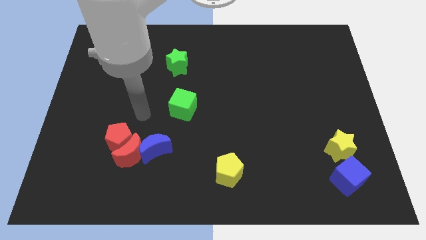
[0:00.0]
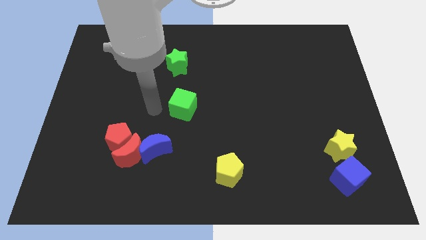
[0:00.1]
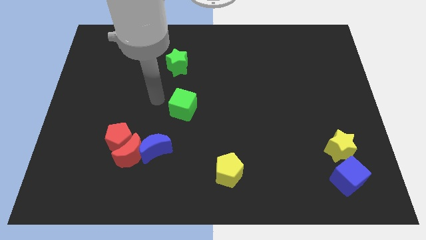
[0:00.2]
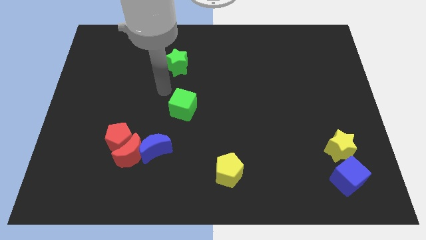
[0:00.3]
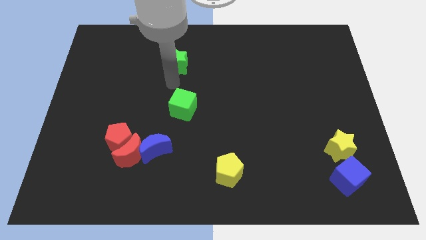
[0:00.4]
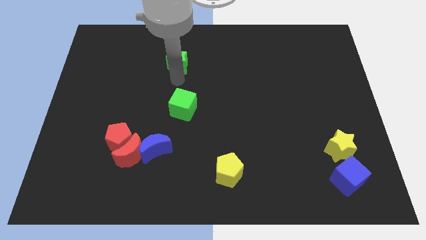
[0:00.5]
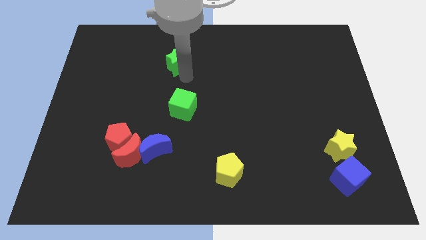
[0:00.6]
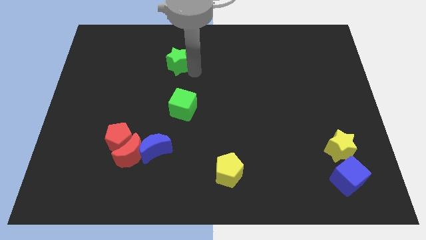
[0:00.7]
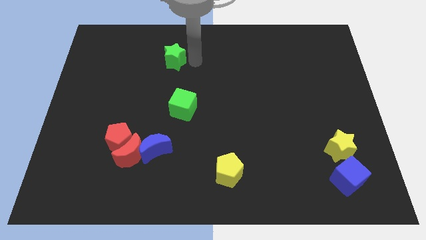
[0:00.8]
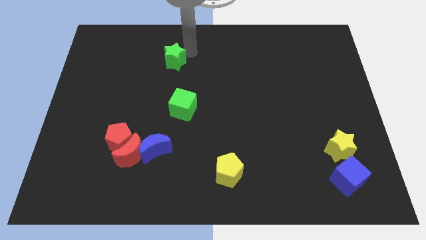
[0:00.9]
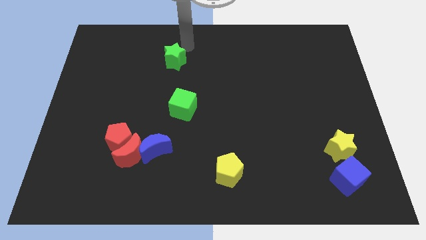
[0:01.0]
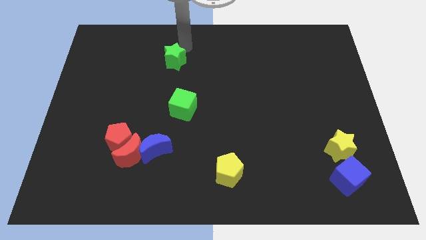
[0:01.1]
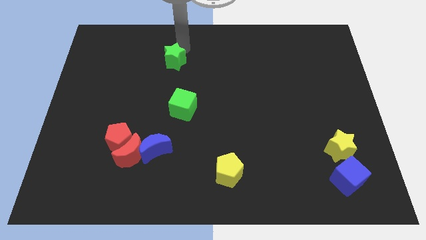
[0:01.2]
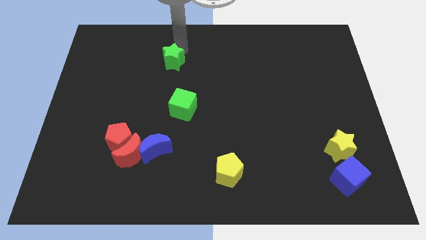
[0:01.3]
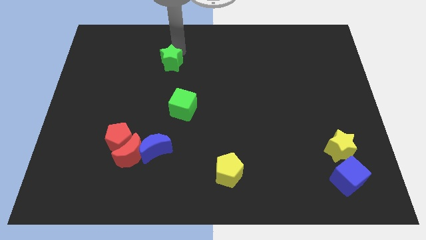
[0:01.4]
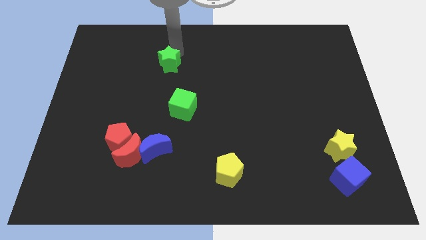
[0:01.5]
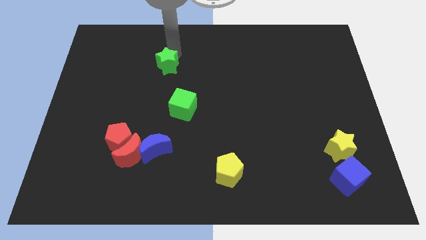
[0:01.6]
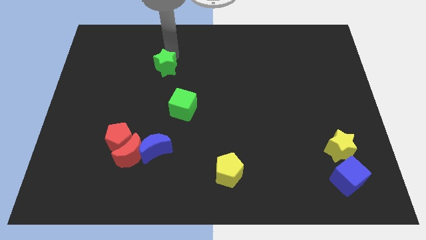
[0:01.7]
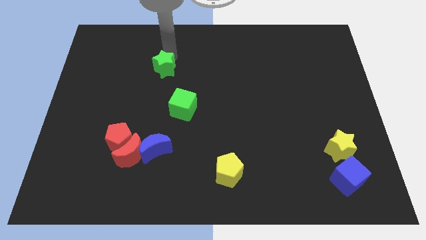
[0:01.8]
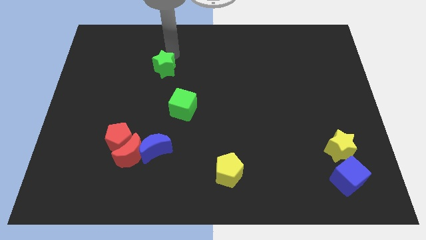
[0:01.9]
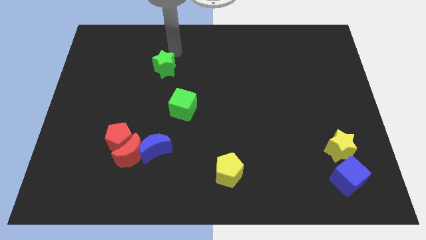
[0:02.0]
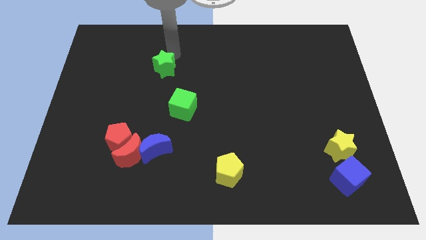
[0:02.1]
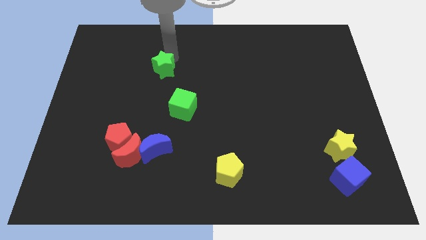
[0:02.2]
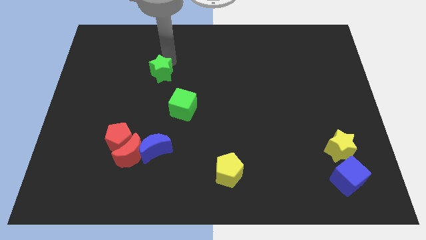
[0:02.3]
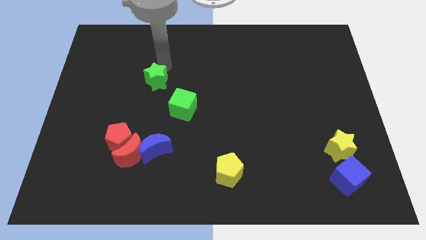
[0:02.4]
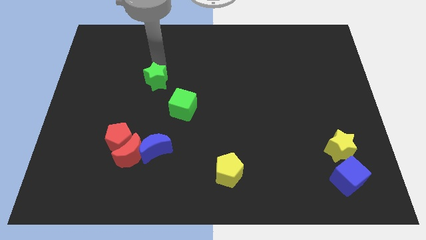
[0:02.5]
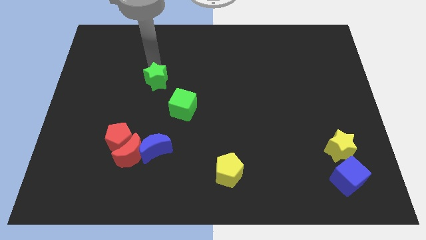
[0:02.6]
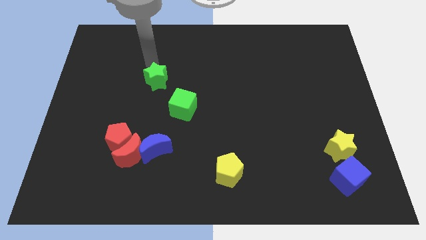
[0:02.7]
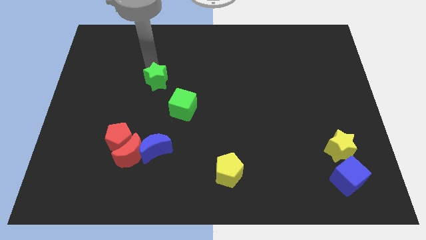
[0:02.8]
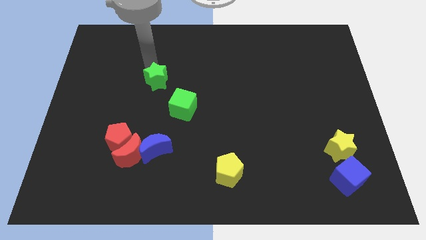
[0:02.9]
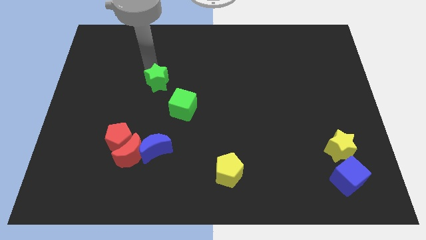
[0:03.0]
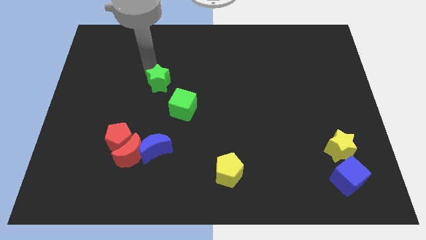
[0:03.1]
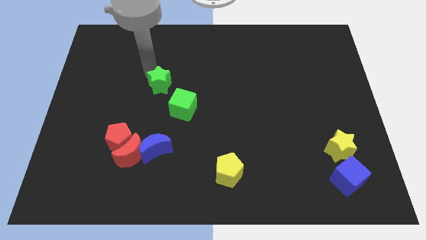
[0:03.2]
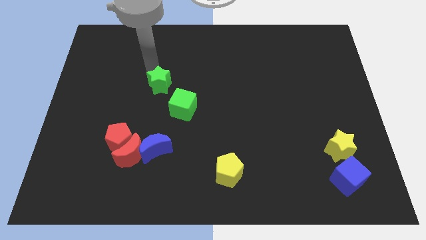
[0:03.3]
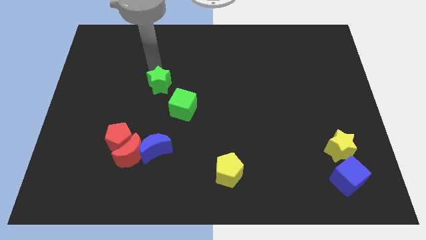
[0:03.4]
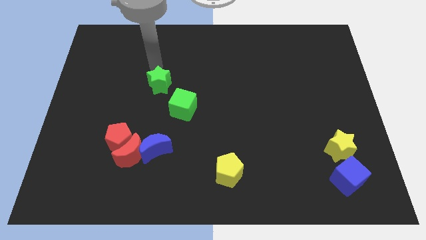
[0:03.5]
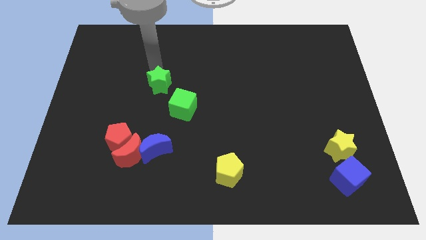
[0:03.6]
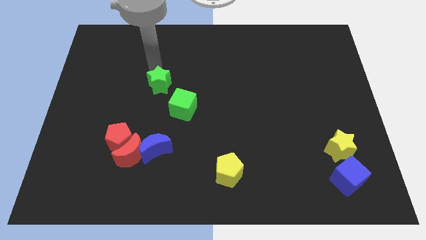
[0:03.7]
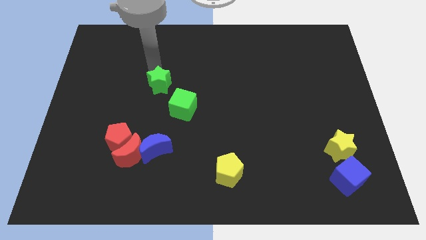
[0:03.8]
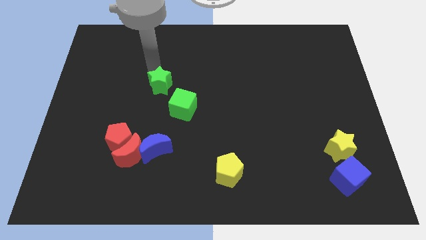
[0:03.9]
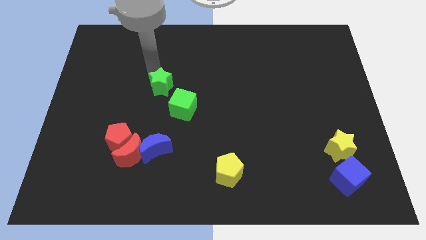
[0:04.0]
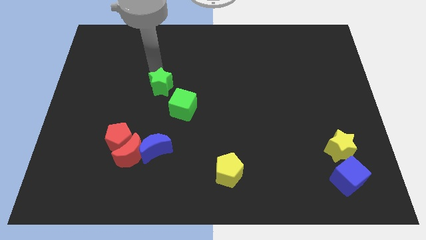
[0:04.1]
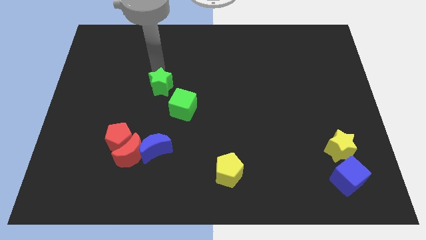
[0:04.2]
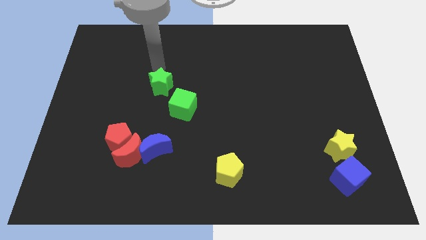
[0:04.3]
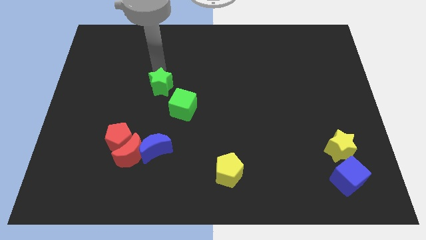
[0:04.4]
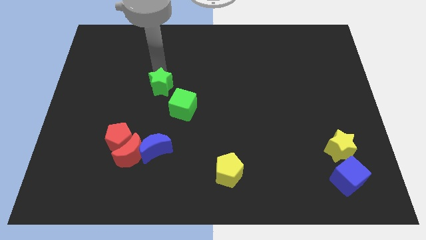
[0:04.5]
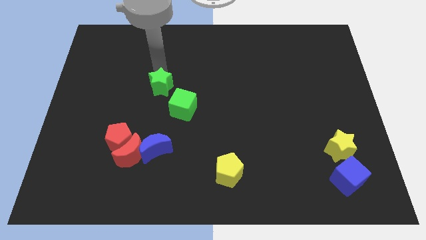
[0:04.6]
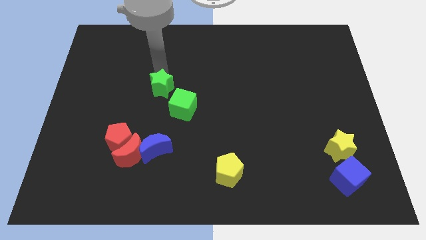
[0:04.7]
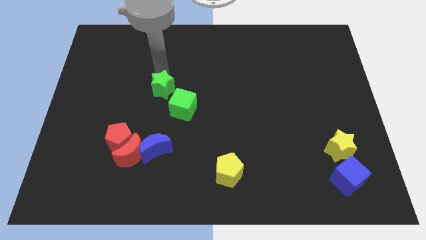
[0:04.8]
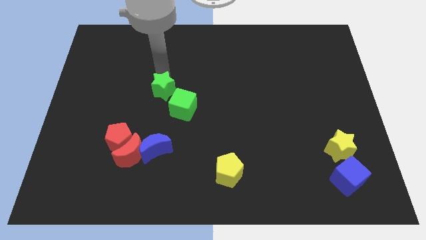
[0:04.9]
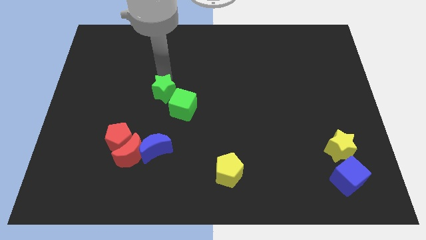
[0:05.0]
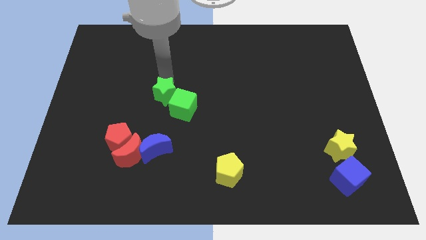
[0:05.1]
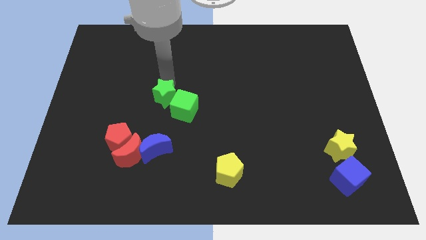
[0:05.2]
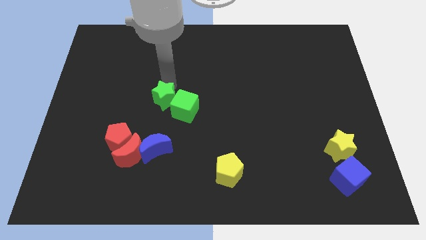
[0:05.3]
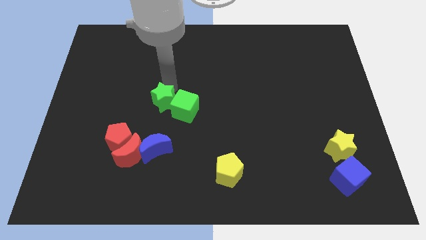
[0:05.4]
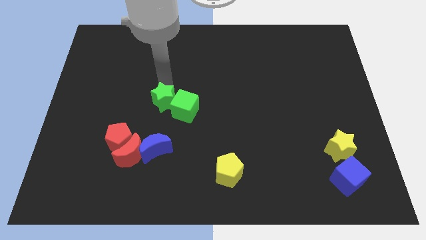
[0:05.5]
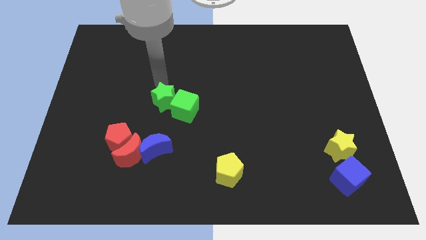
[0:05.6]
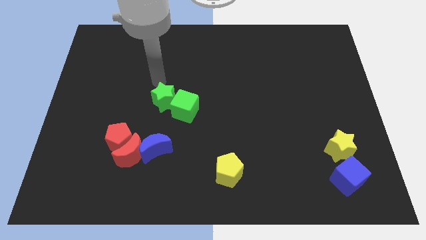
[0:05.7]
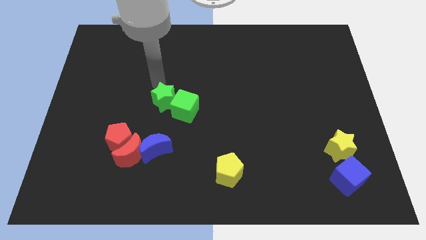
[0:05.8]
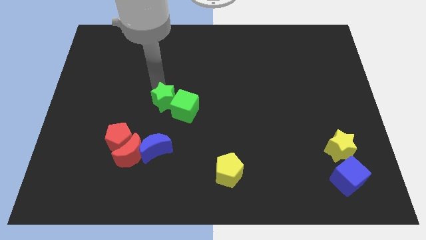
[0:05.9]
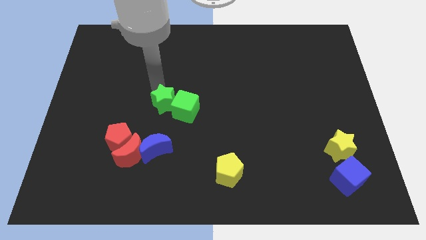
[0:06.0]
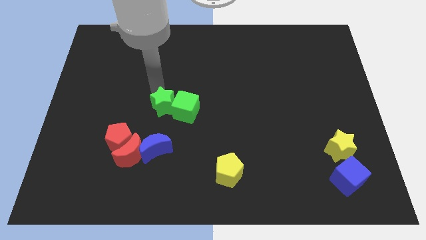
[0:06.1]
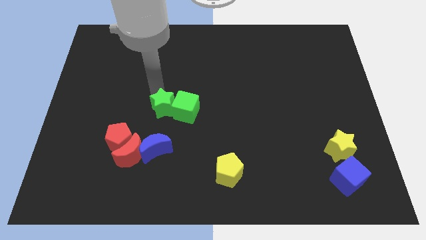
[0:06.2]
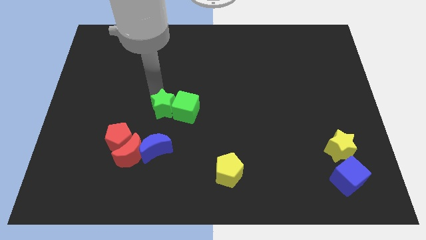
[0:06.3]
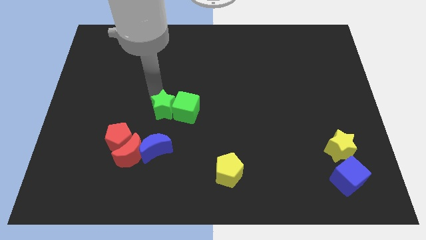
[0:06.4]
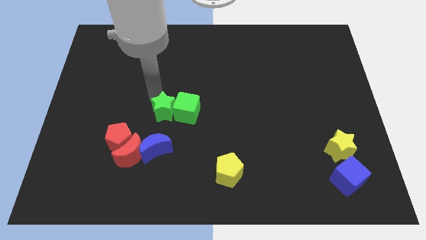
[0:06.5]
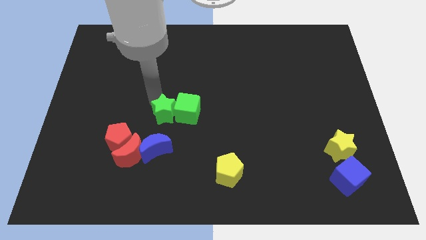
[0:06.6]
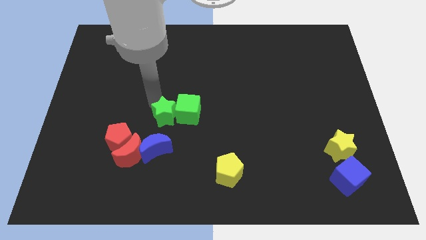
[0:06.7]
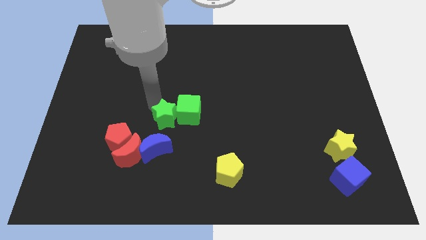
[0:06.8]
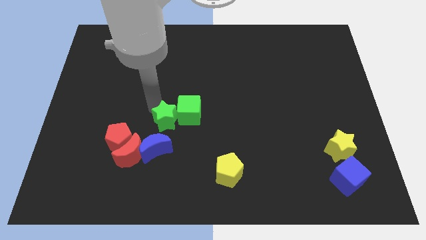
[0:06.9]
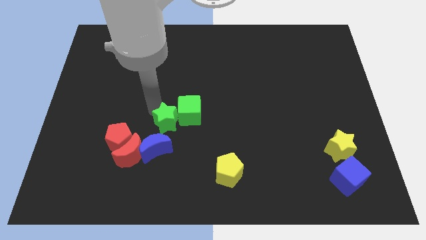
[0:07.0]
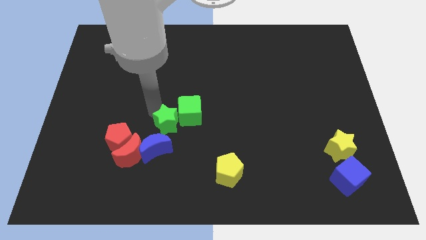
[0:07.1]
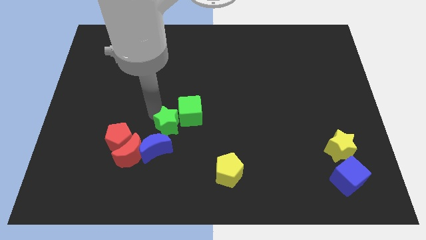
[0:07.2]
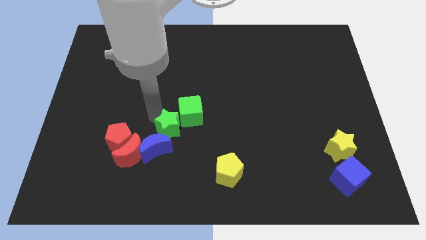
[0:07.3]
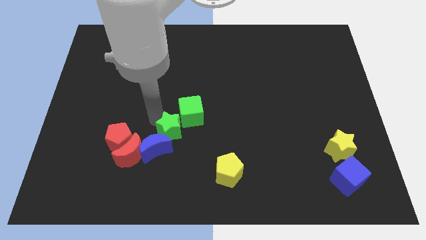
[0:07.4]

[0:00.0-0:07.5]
push the green star downwards

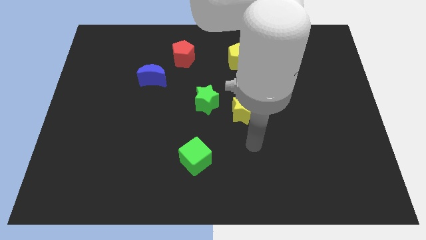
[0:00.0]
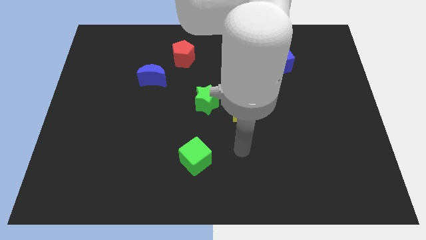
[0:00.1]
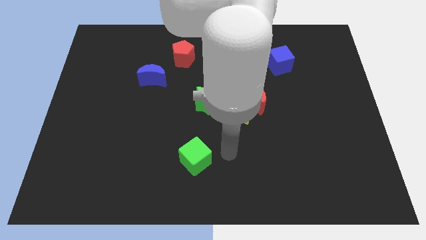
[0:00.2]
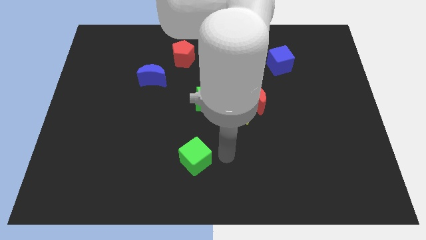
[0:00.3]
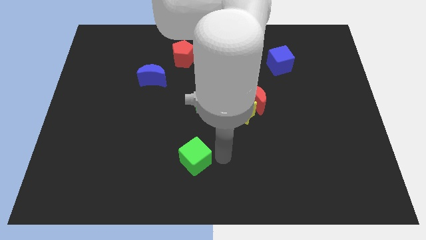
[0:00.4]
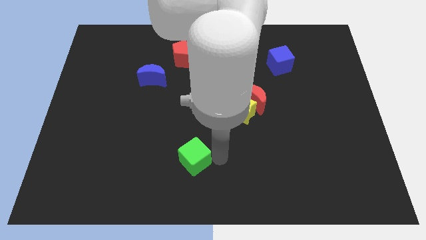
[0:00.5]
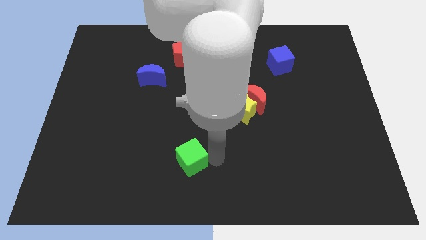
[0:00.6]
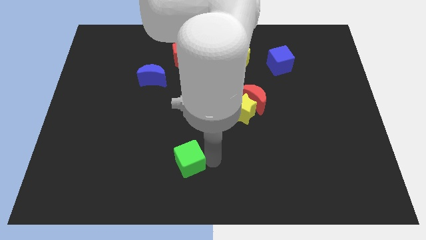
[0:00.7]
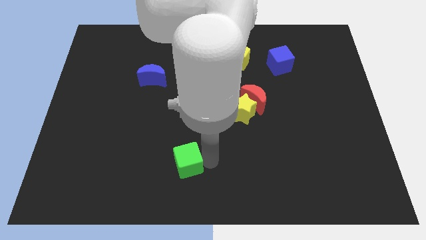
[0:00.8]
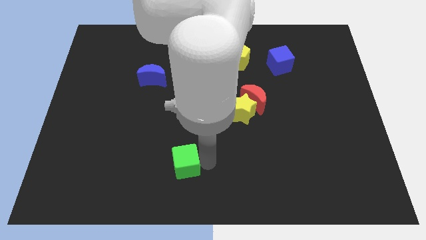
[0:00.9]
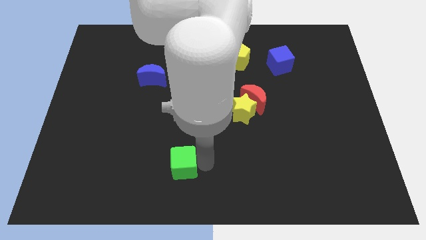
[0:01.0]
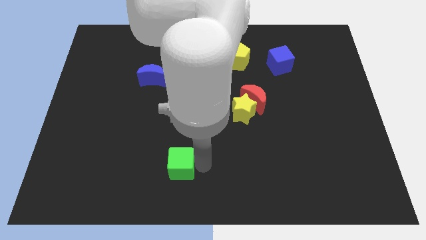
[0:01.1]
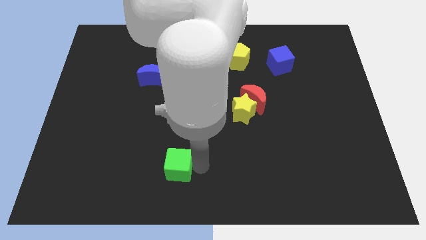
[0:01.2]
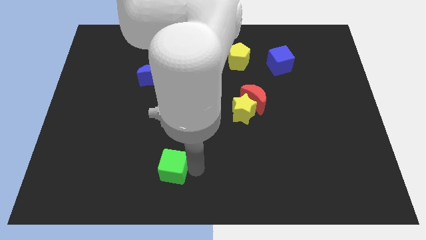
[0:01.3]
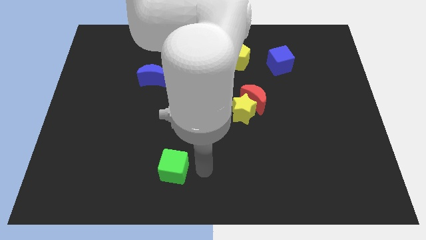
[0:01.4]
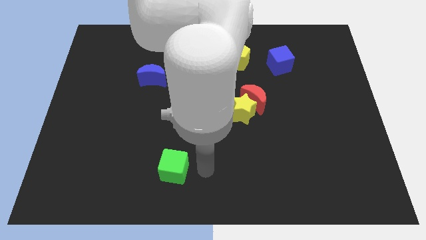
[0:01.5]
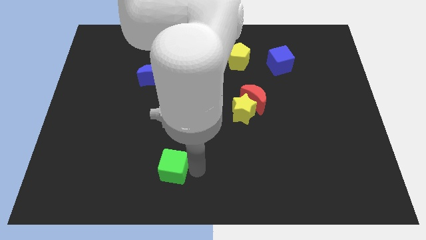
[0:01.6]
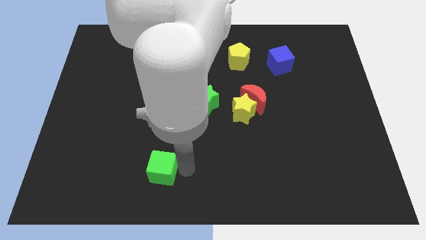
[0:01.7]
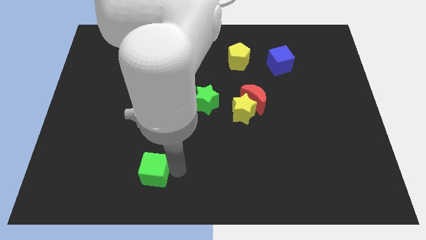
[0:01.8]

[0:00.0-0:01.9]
slightly slide the green cube to the left
